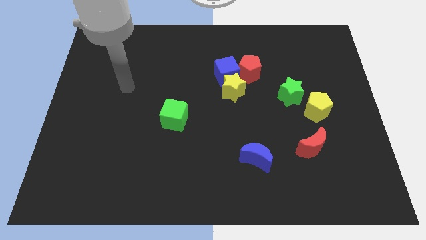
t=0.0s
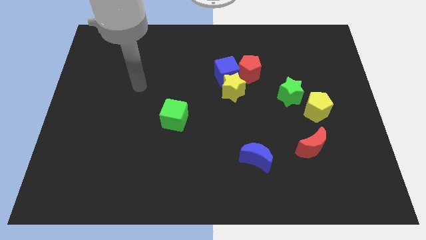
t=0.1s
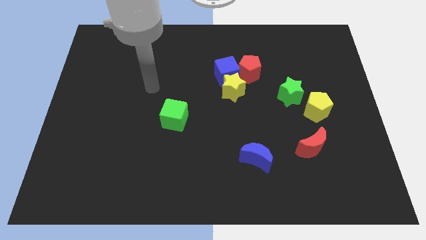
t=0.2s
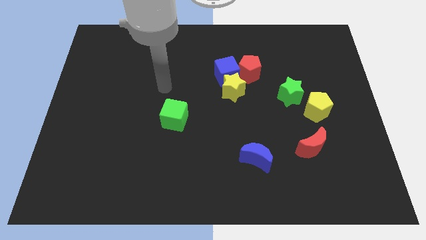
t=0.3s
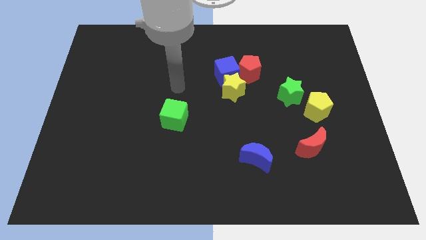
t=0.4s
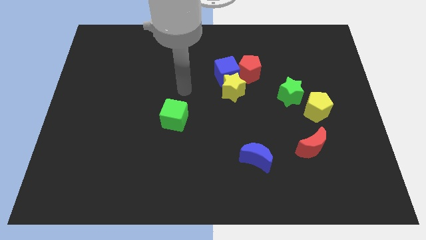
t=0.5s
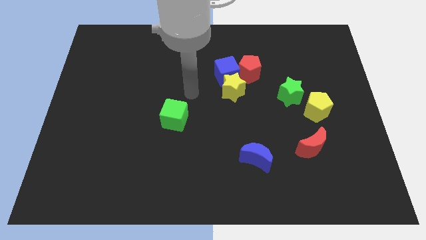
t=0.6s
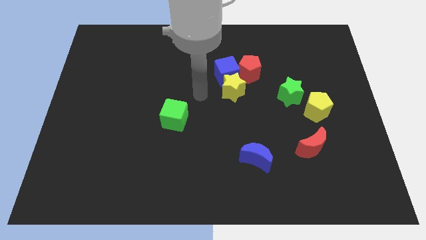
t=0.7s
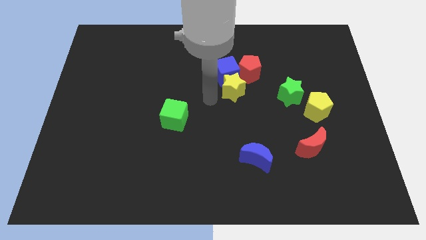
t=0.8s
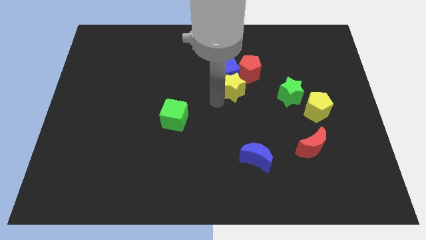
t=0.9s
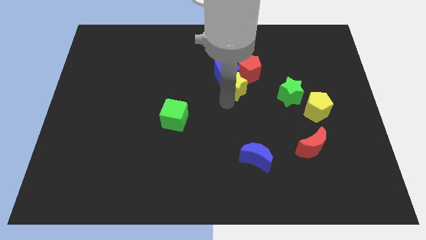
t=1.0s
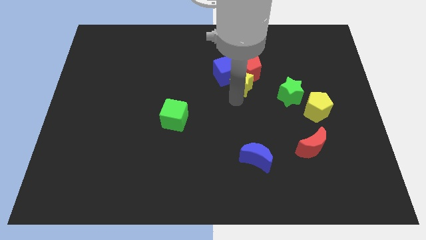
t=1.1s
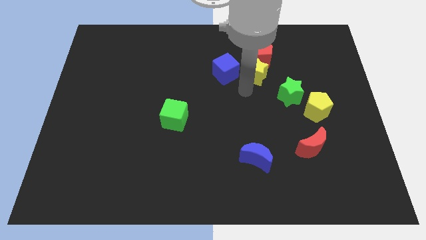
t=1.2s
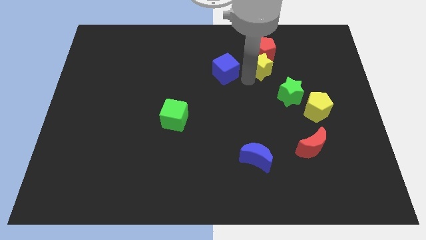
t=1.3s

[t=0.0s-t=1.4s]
move the blue cube away from the yellow star and red pentagon

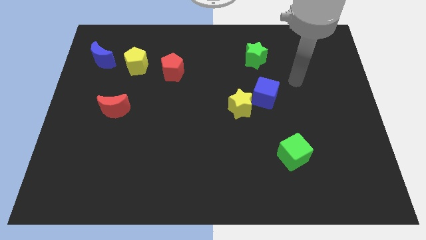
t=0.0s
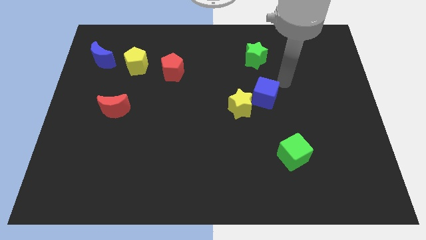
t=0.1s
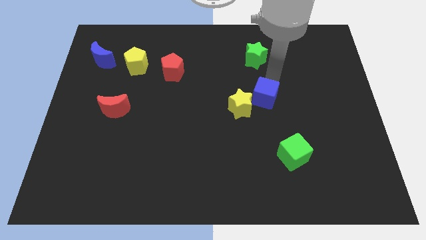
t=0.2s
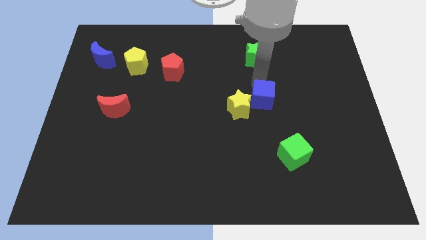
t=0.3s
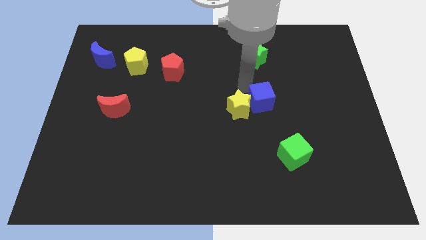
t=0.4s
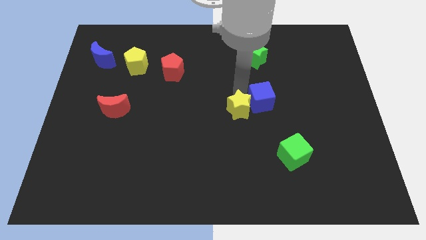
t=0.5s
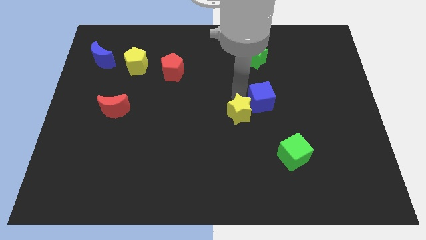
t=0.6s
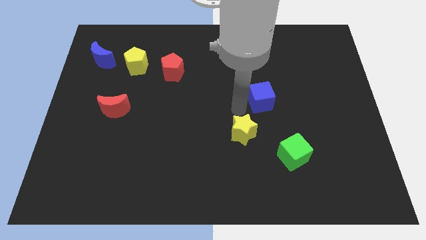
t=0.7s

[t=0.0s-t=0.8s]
move the blue cube away from the yellow star

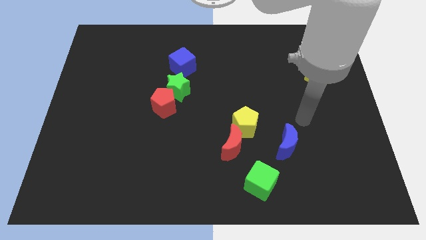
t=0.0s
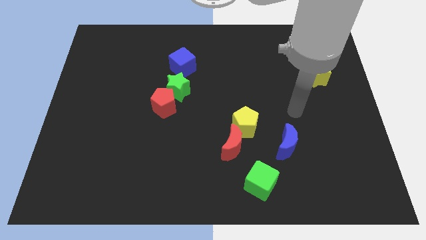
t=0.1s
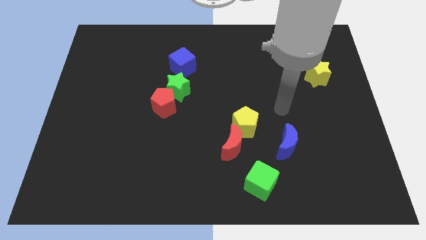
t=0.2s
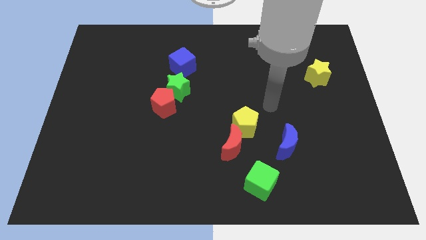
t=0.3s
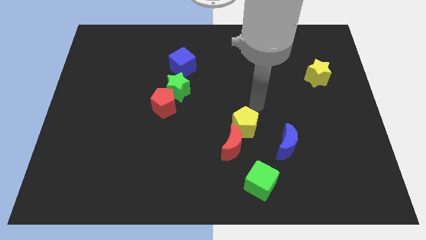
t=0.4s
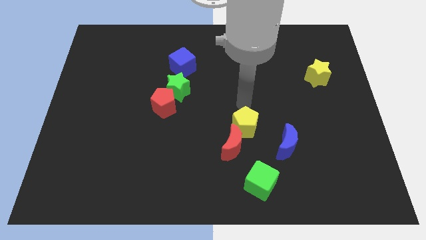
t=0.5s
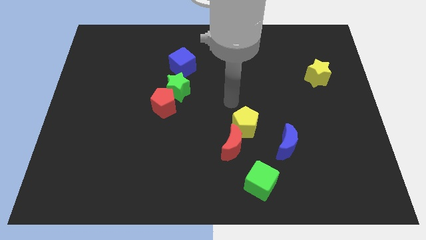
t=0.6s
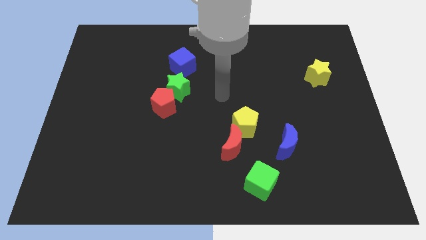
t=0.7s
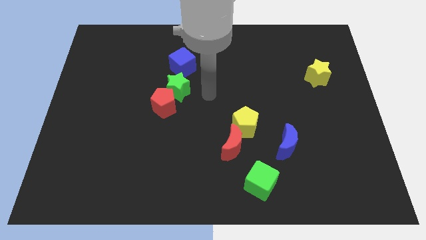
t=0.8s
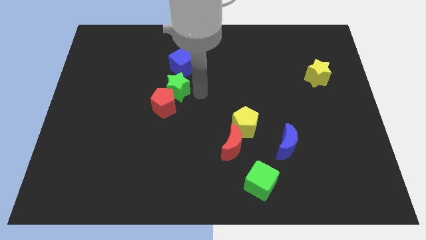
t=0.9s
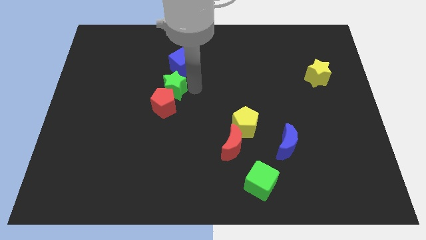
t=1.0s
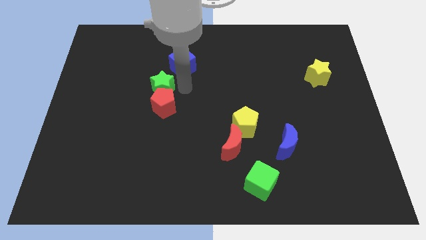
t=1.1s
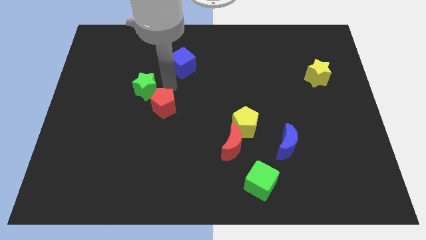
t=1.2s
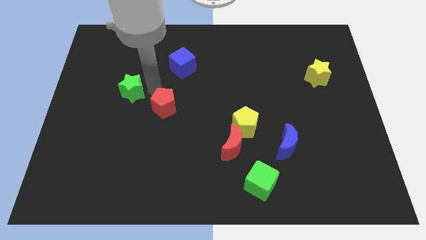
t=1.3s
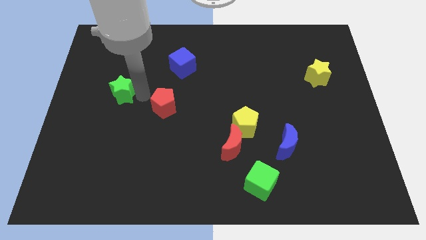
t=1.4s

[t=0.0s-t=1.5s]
move the red pentagon away from the green star

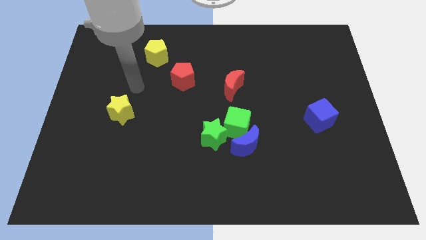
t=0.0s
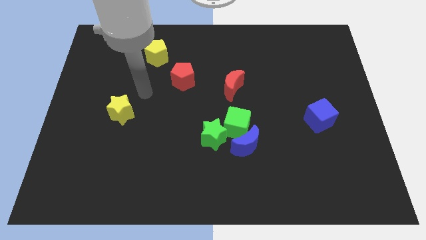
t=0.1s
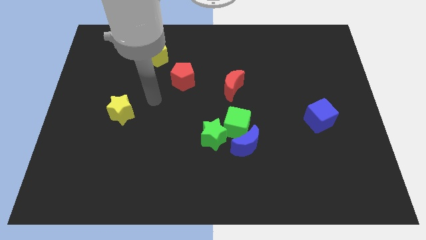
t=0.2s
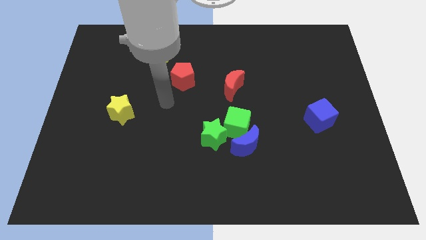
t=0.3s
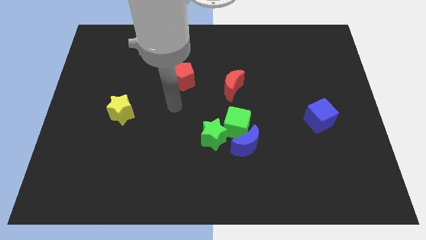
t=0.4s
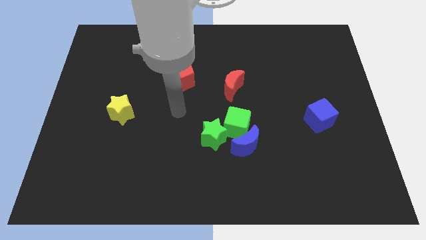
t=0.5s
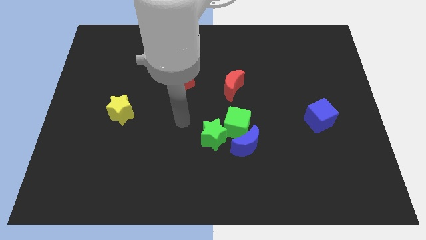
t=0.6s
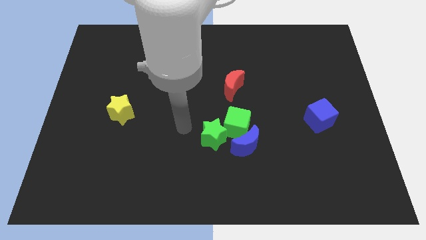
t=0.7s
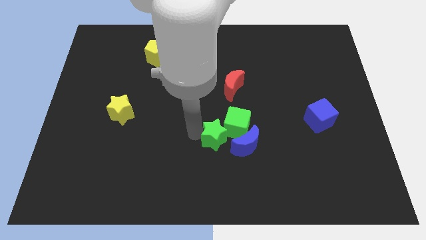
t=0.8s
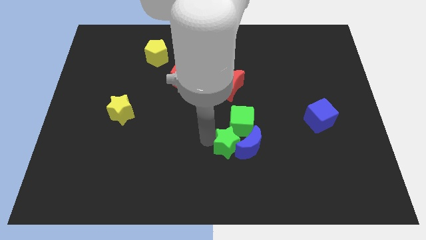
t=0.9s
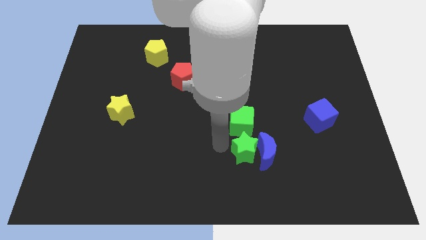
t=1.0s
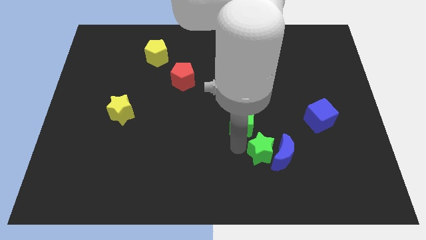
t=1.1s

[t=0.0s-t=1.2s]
move the green cube away from the blue moon and green star

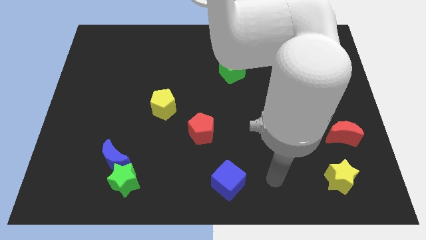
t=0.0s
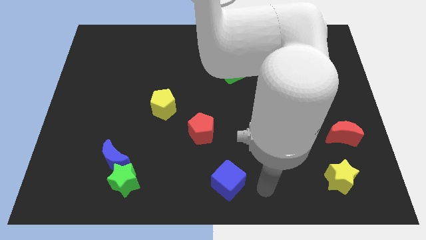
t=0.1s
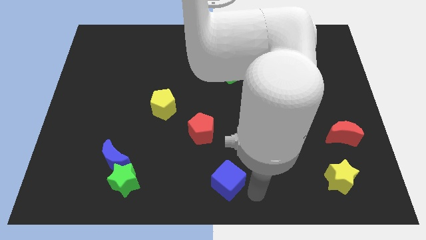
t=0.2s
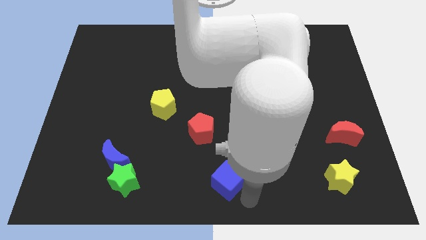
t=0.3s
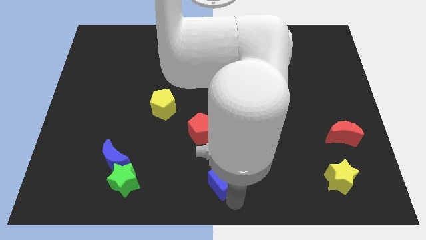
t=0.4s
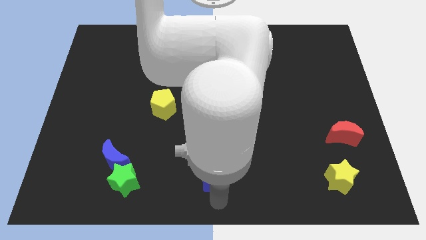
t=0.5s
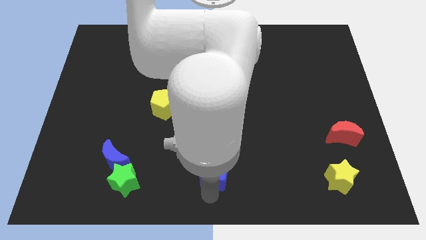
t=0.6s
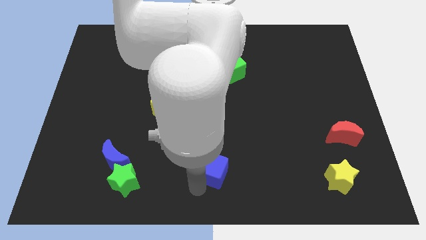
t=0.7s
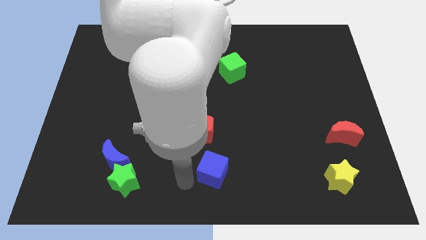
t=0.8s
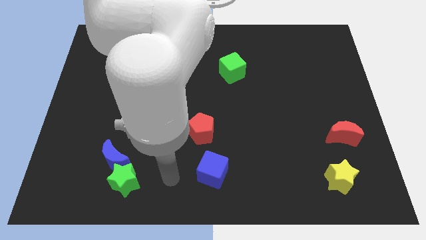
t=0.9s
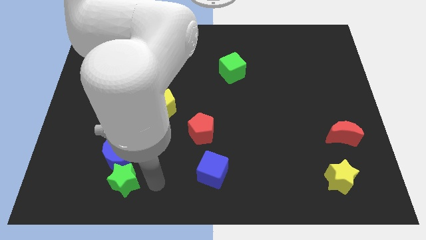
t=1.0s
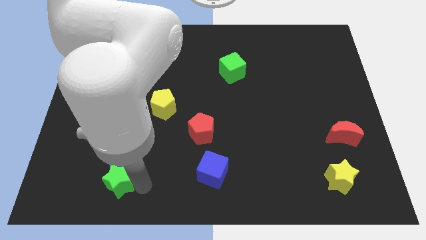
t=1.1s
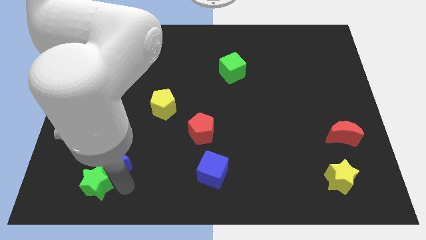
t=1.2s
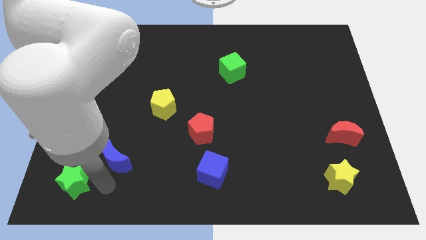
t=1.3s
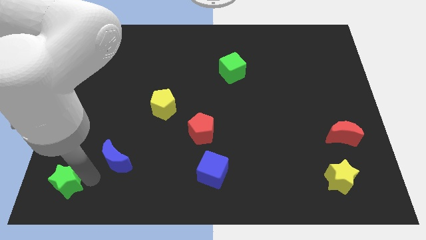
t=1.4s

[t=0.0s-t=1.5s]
separate the blue moon from the green star

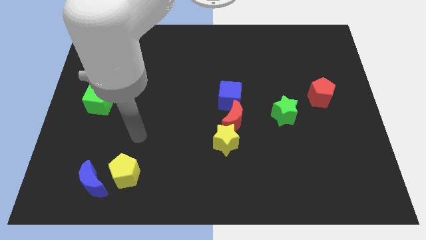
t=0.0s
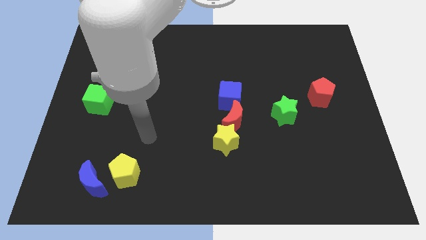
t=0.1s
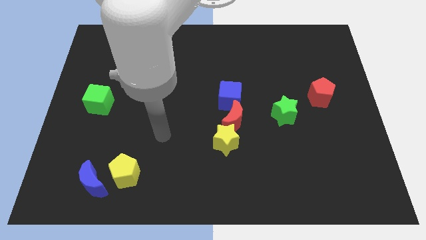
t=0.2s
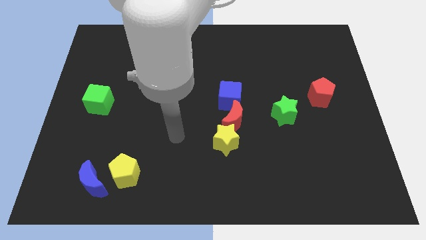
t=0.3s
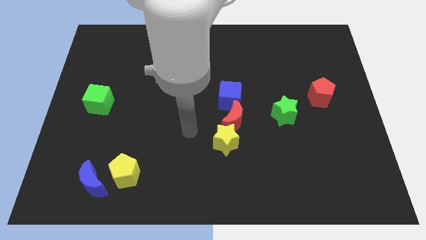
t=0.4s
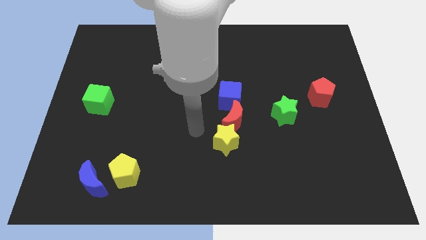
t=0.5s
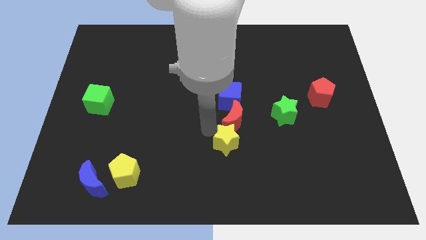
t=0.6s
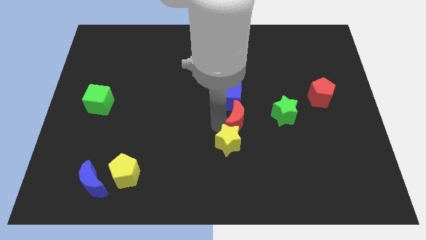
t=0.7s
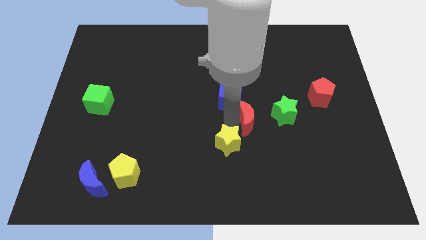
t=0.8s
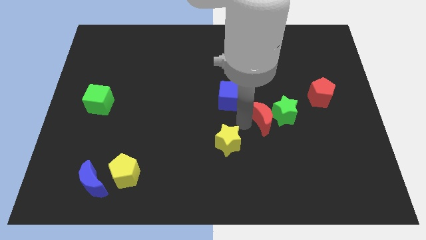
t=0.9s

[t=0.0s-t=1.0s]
pull the yellow star apart from the red moon

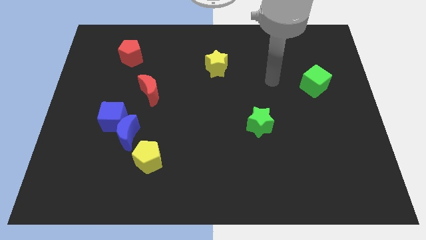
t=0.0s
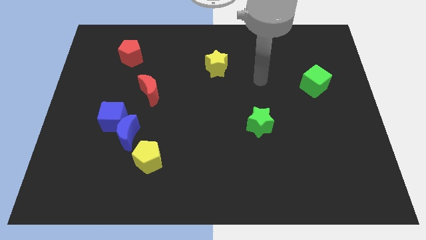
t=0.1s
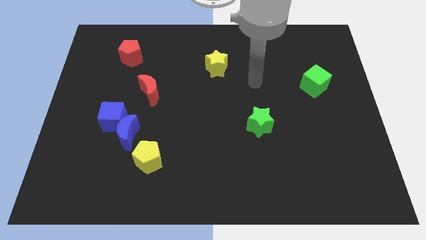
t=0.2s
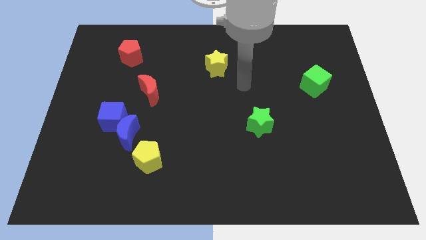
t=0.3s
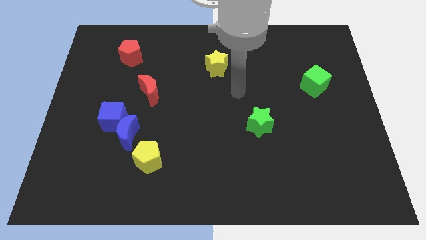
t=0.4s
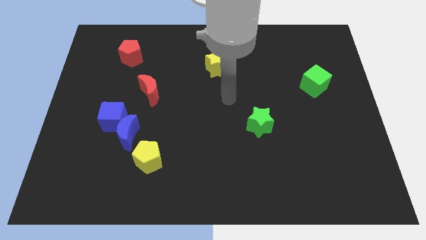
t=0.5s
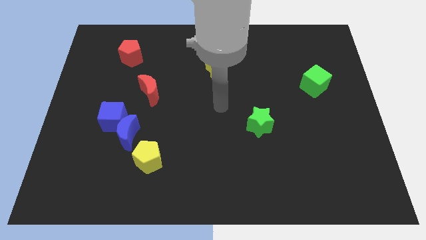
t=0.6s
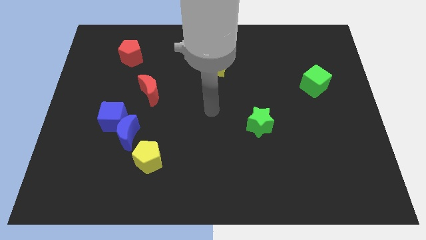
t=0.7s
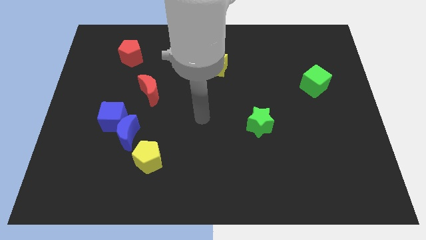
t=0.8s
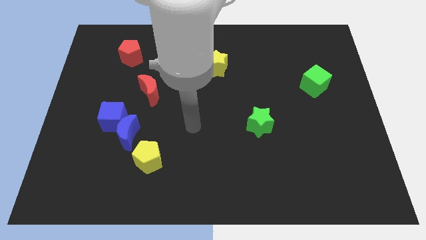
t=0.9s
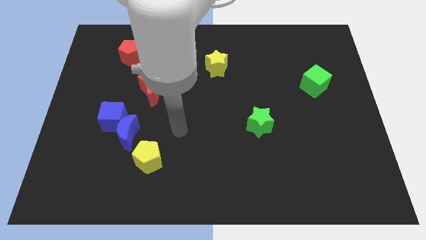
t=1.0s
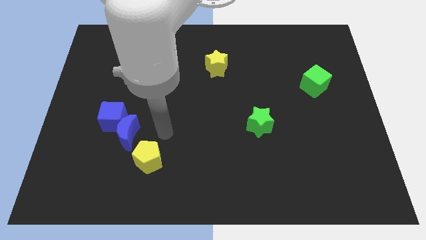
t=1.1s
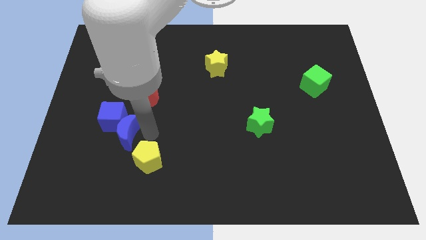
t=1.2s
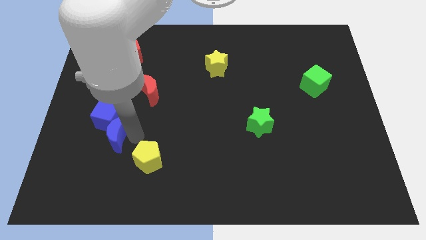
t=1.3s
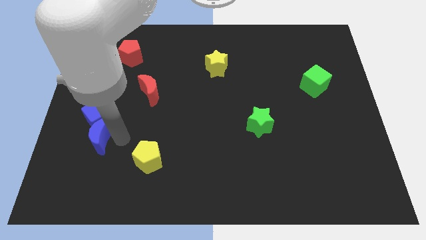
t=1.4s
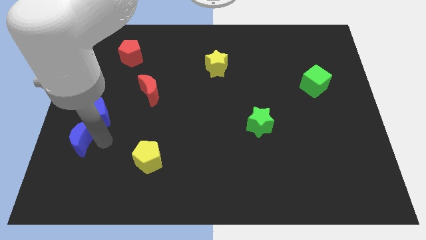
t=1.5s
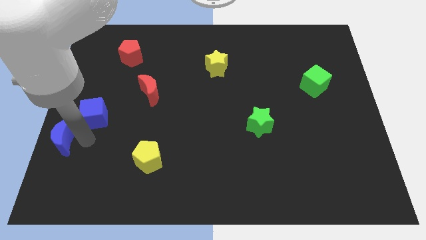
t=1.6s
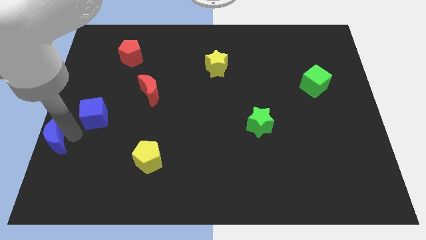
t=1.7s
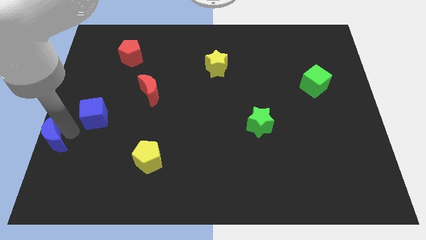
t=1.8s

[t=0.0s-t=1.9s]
move the blue cube away from the blue moon
